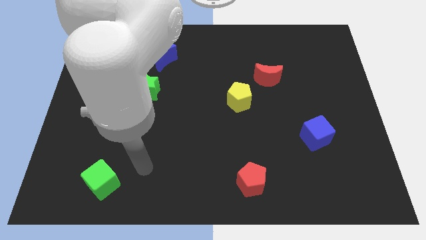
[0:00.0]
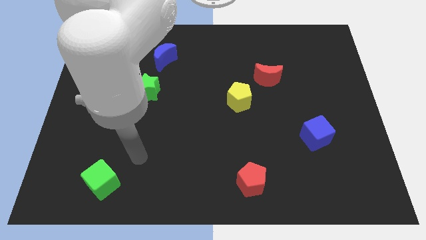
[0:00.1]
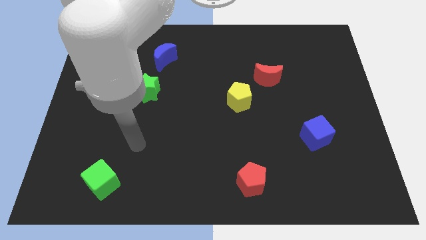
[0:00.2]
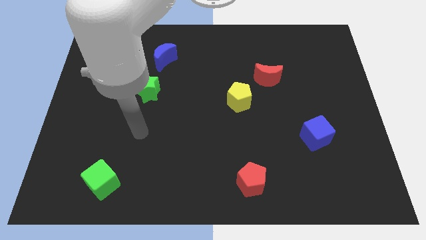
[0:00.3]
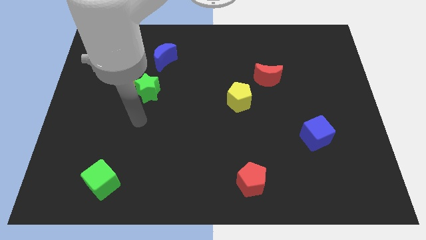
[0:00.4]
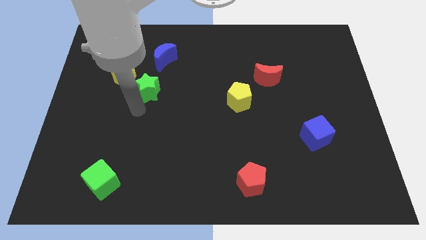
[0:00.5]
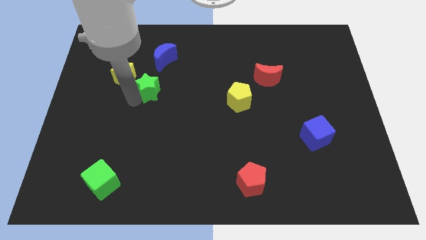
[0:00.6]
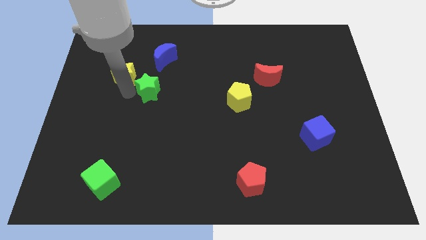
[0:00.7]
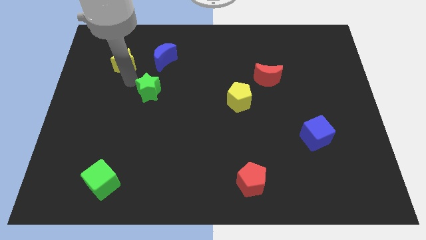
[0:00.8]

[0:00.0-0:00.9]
move the green star away from the yellow star

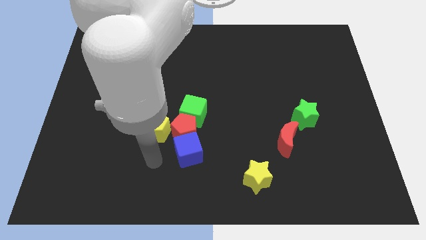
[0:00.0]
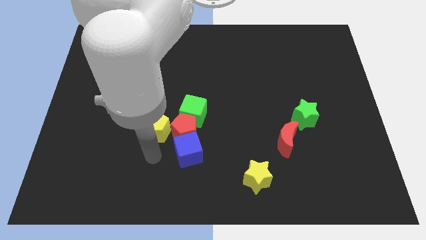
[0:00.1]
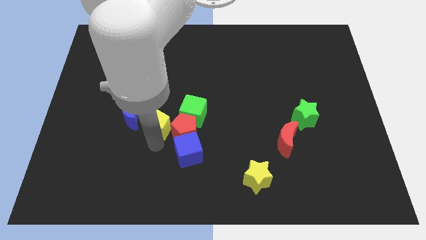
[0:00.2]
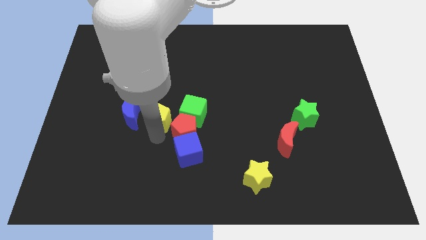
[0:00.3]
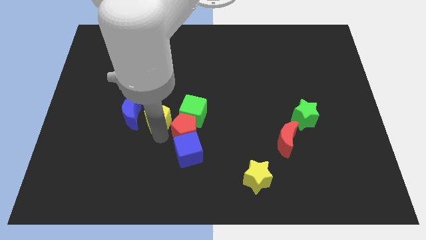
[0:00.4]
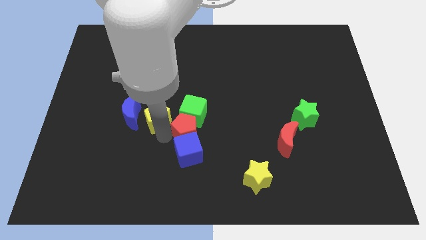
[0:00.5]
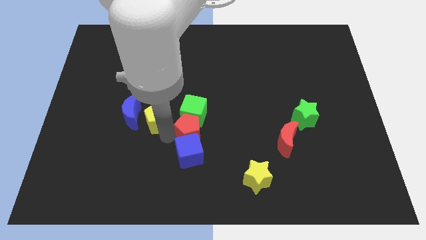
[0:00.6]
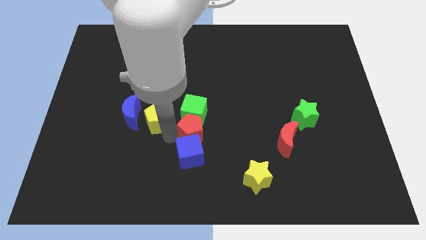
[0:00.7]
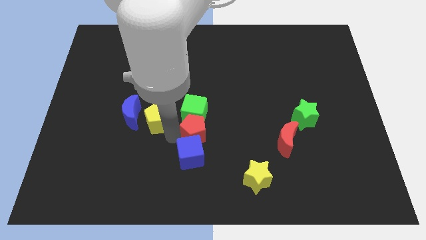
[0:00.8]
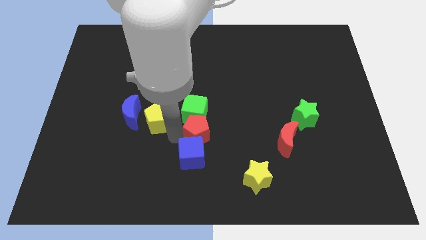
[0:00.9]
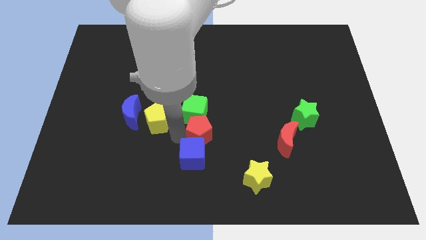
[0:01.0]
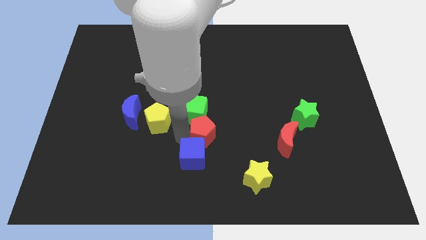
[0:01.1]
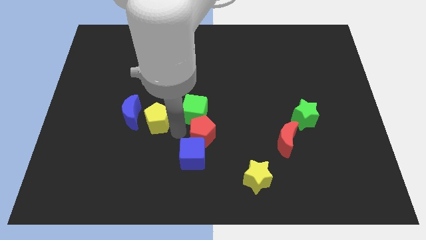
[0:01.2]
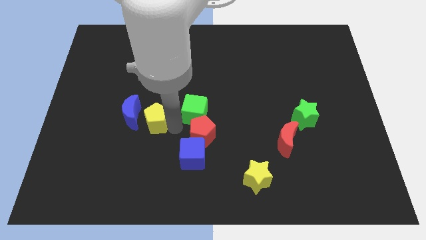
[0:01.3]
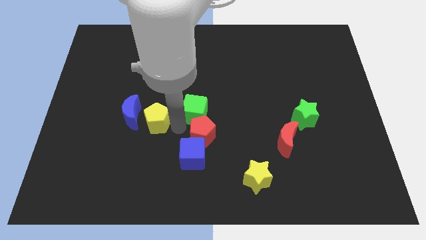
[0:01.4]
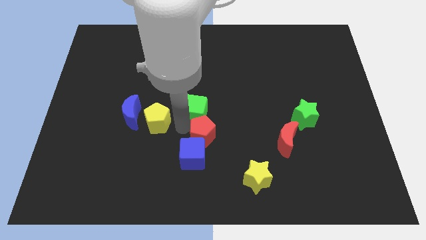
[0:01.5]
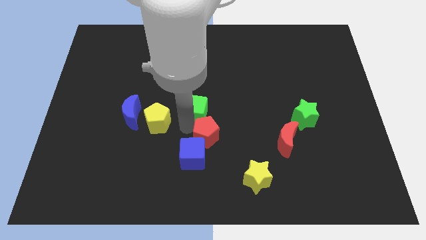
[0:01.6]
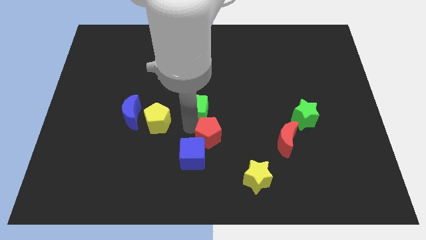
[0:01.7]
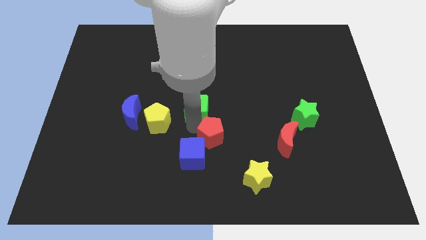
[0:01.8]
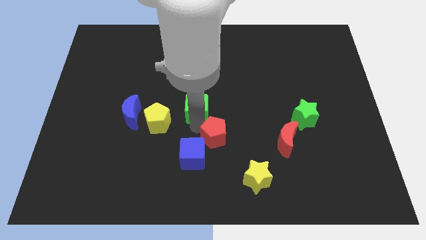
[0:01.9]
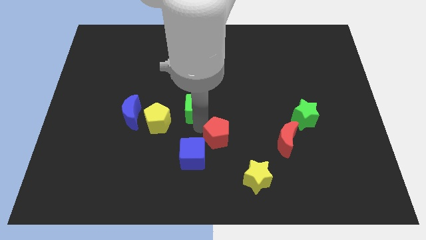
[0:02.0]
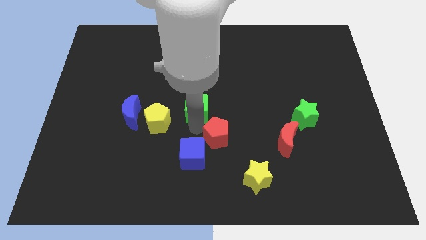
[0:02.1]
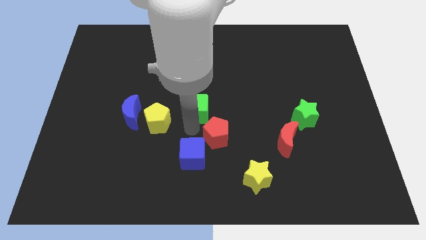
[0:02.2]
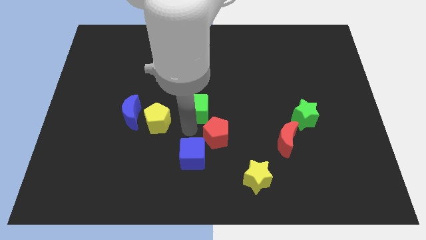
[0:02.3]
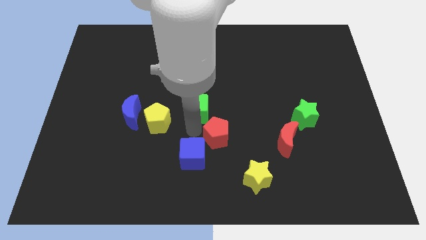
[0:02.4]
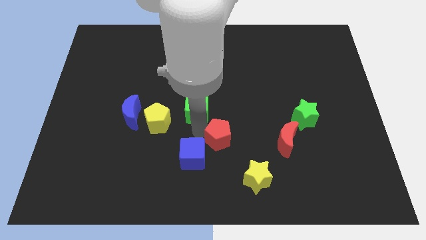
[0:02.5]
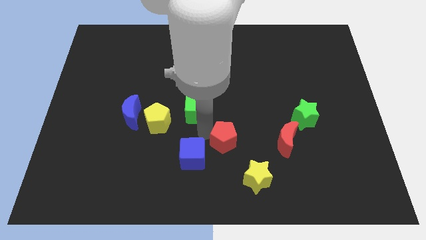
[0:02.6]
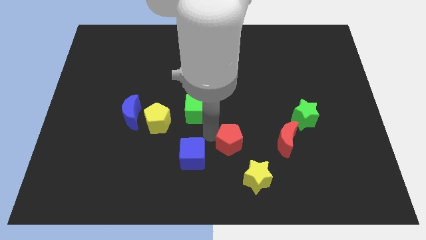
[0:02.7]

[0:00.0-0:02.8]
separate the red pentagon from the group of blocks

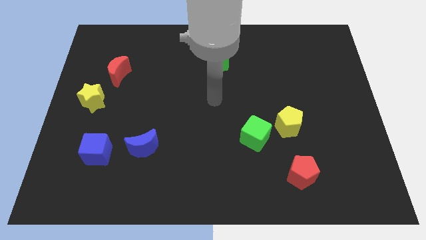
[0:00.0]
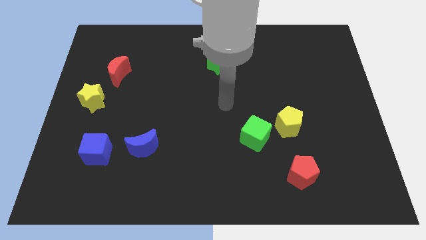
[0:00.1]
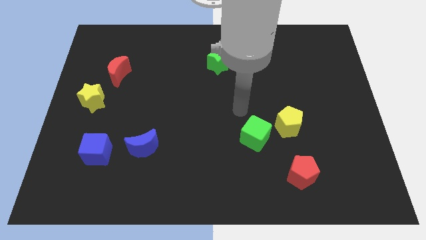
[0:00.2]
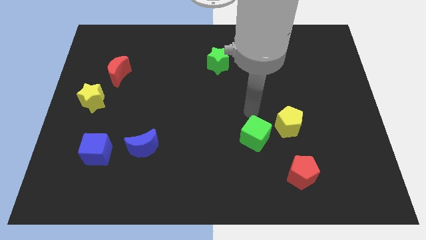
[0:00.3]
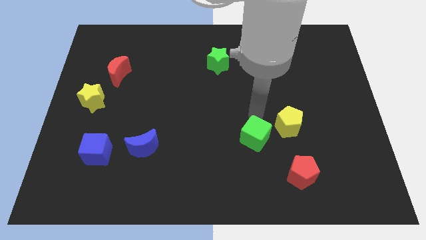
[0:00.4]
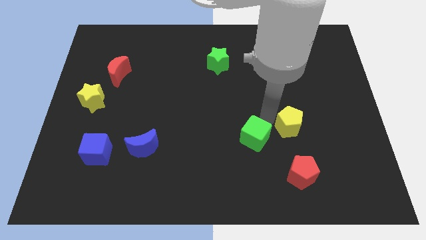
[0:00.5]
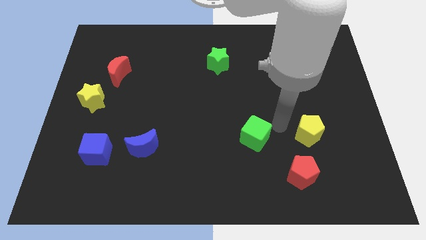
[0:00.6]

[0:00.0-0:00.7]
move the green cube away from the yellow pentagon

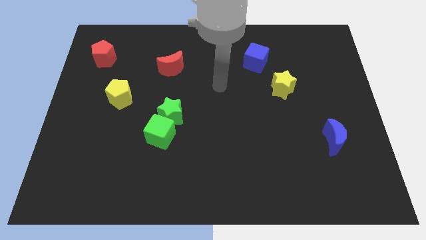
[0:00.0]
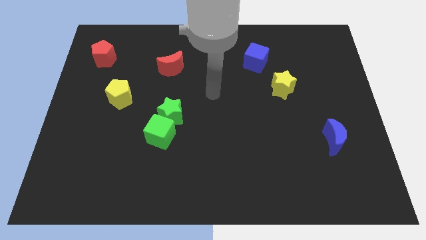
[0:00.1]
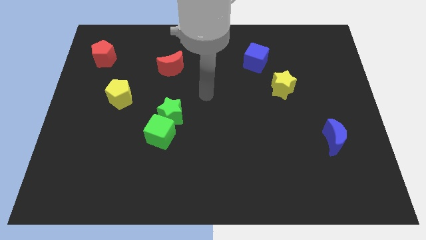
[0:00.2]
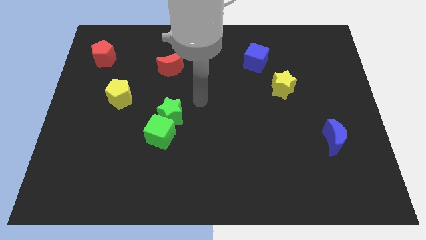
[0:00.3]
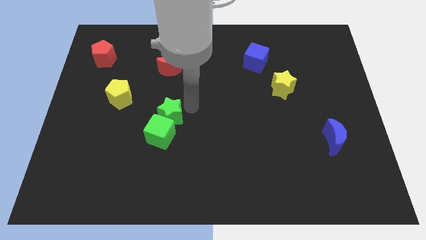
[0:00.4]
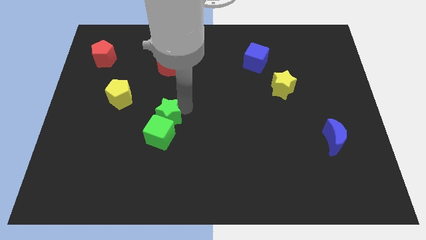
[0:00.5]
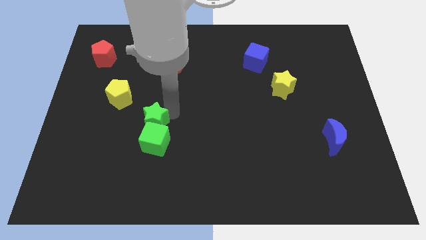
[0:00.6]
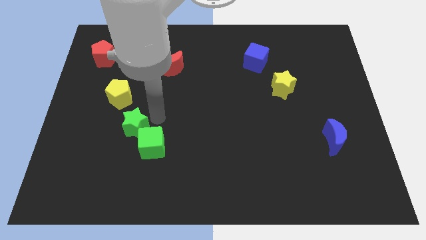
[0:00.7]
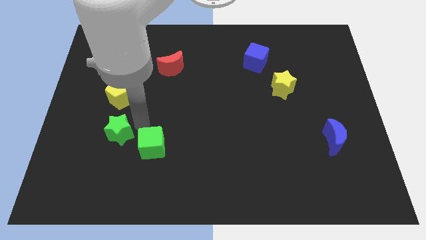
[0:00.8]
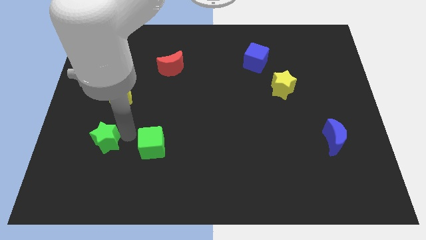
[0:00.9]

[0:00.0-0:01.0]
move the green cube away from the green star

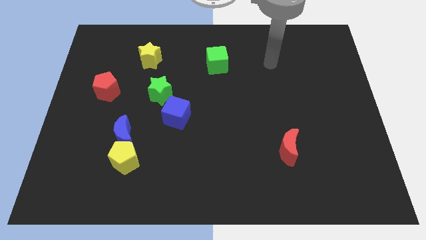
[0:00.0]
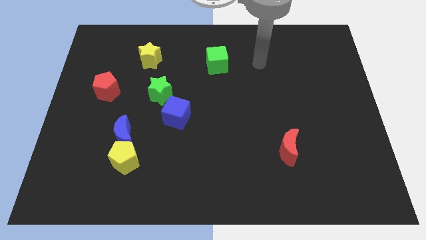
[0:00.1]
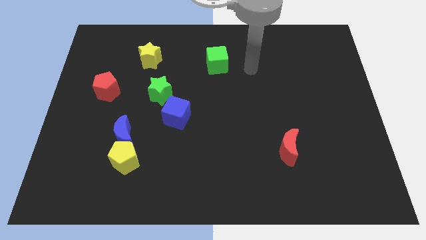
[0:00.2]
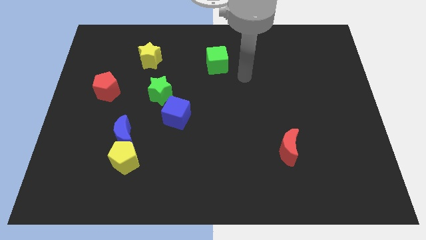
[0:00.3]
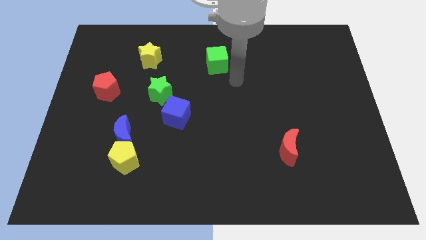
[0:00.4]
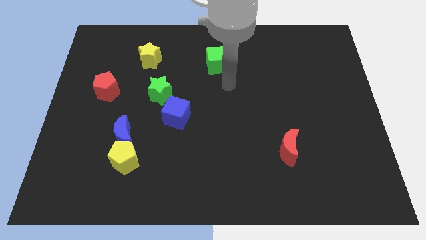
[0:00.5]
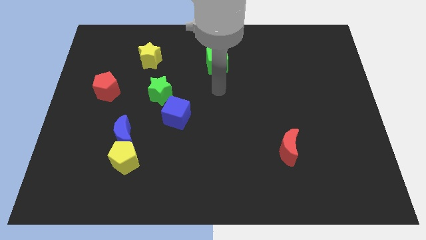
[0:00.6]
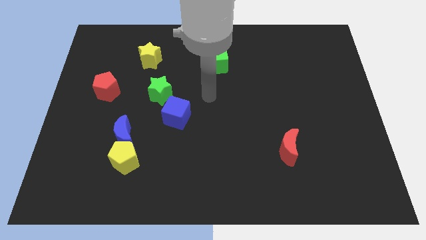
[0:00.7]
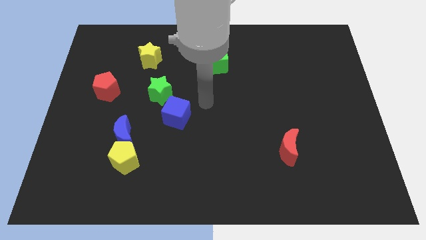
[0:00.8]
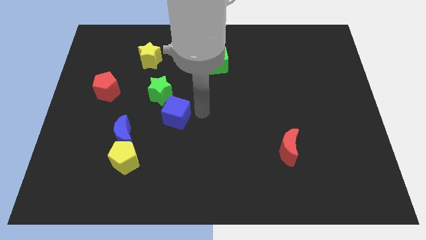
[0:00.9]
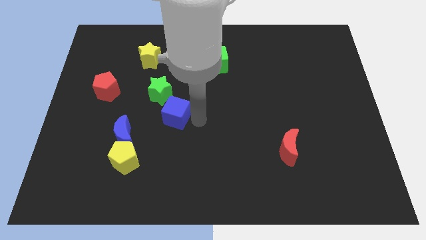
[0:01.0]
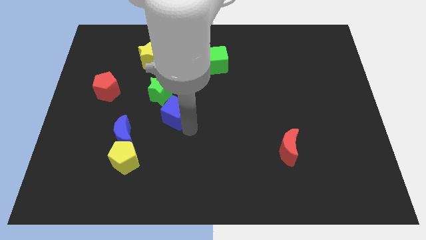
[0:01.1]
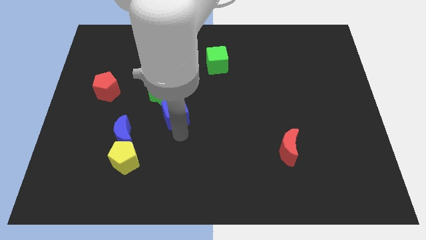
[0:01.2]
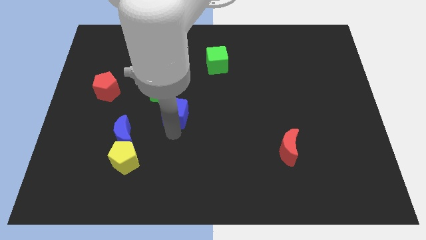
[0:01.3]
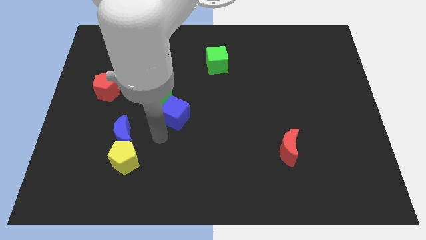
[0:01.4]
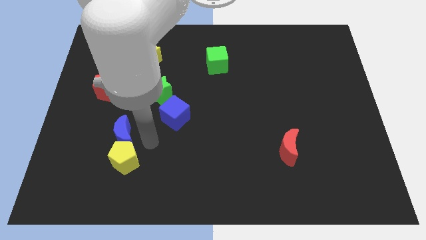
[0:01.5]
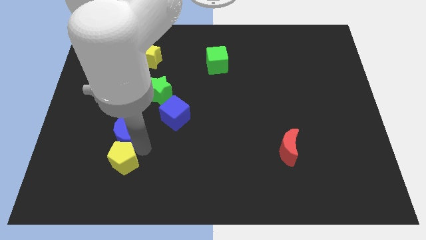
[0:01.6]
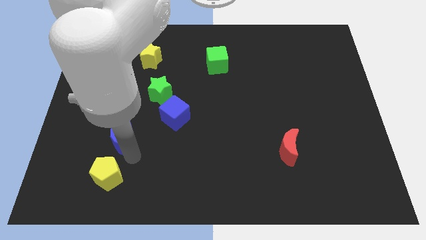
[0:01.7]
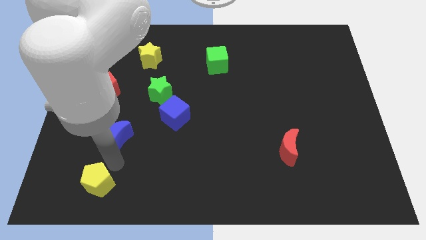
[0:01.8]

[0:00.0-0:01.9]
move the blue moon away from the yellow pentagon

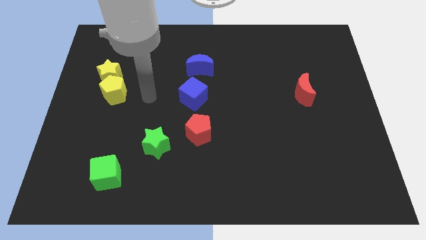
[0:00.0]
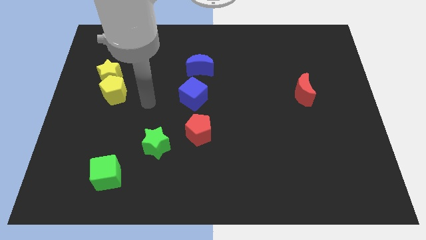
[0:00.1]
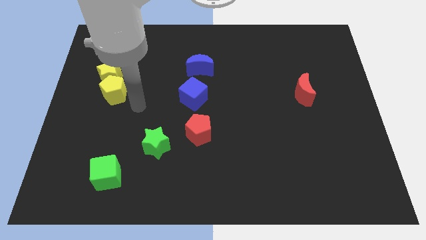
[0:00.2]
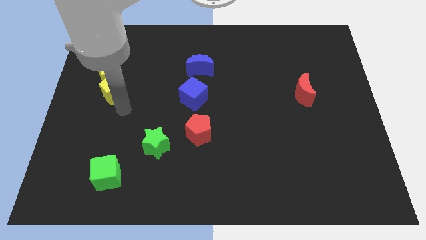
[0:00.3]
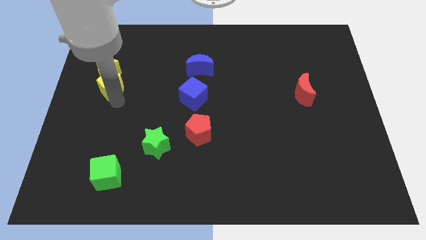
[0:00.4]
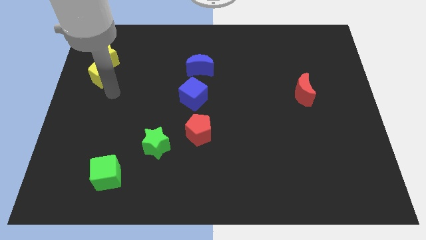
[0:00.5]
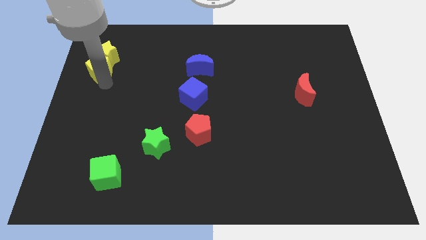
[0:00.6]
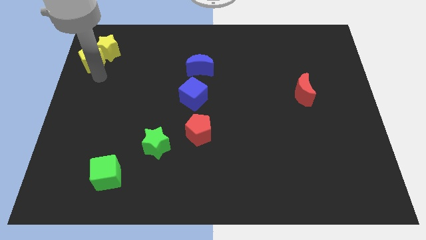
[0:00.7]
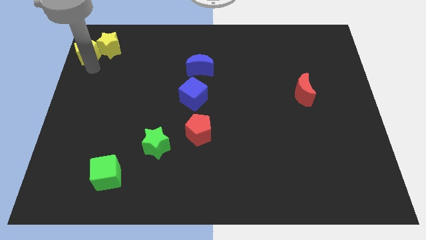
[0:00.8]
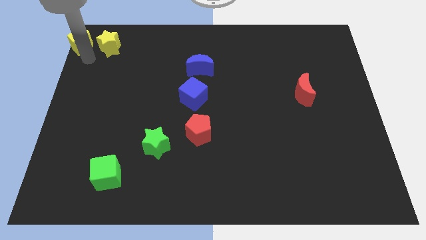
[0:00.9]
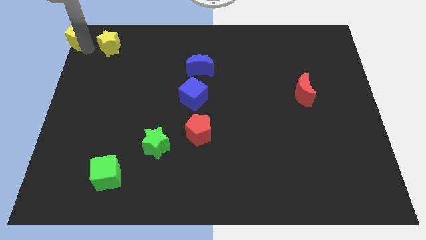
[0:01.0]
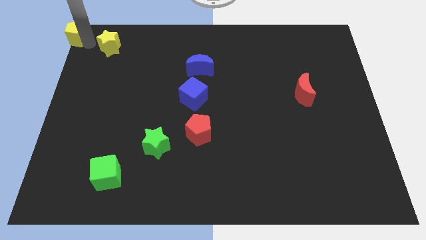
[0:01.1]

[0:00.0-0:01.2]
separate the yellow star from the yellow pentagon

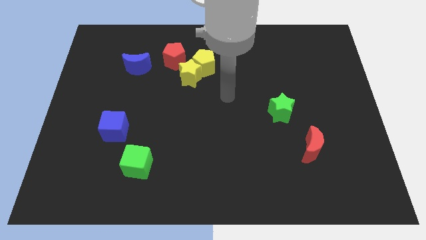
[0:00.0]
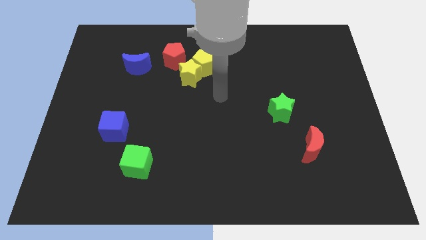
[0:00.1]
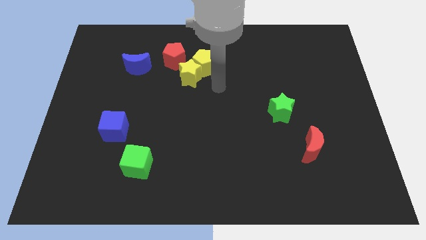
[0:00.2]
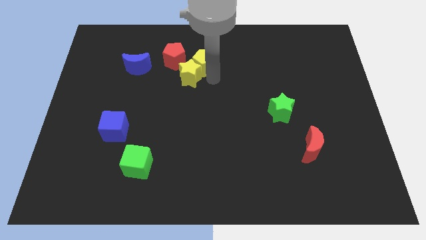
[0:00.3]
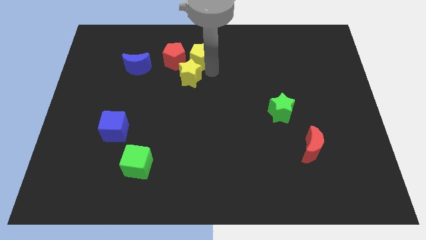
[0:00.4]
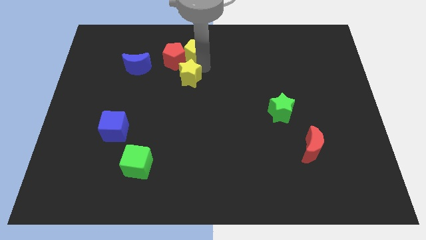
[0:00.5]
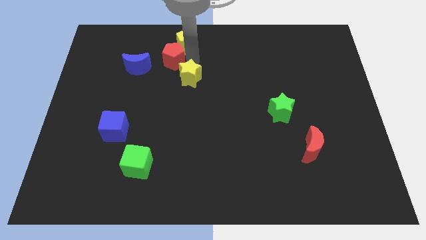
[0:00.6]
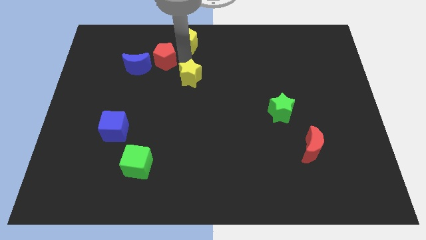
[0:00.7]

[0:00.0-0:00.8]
pull the yellow star apart from the yellow pentagon and red pentagon
